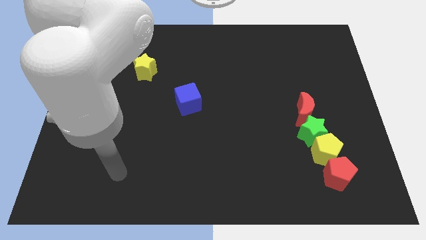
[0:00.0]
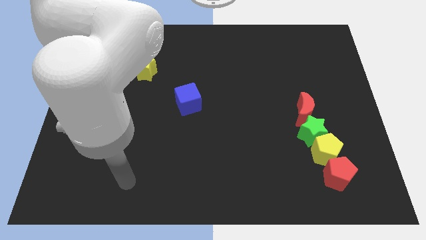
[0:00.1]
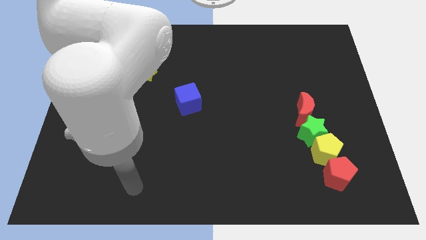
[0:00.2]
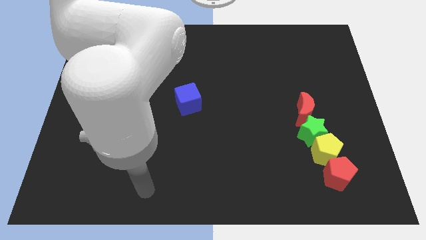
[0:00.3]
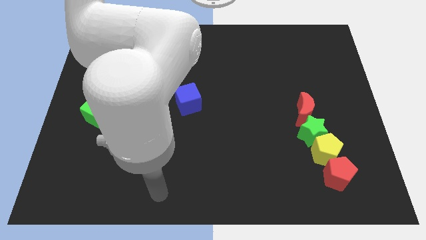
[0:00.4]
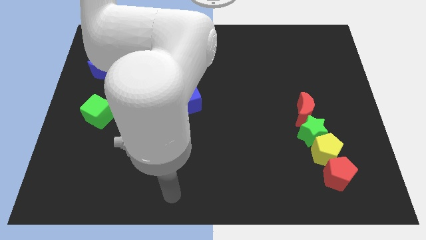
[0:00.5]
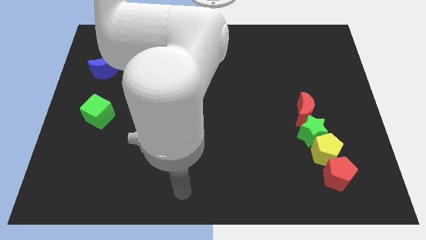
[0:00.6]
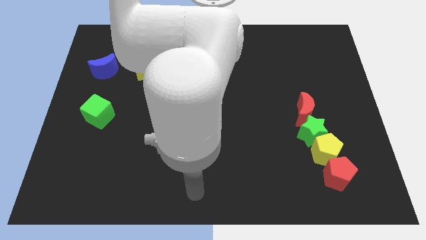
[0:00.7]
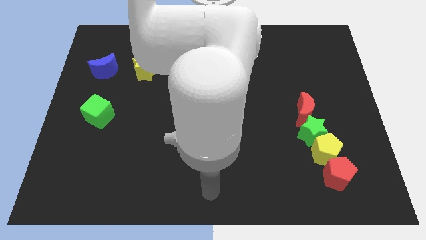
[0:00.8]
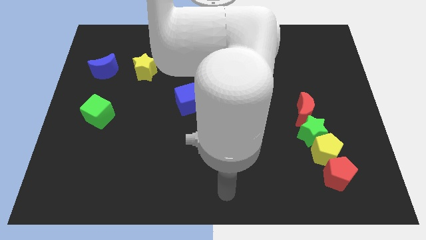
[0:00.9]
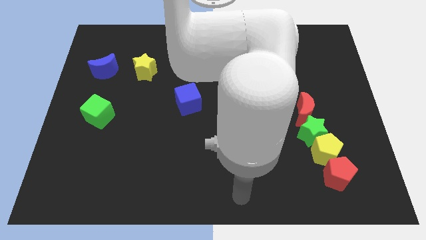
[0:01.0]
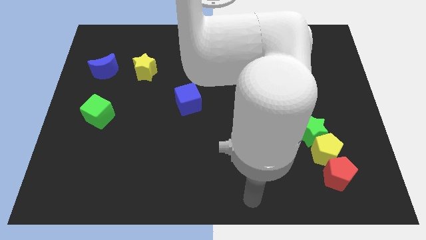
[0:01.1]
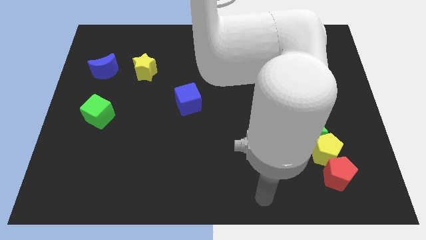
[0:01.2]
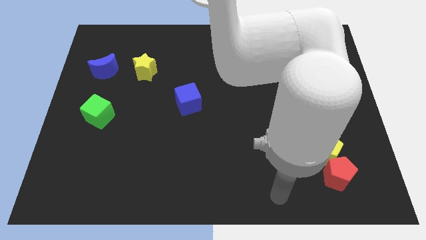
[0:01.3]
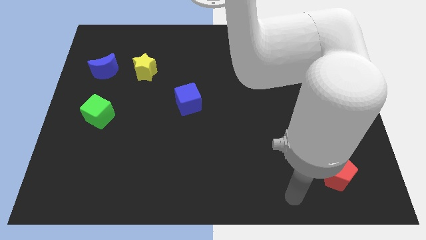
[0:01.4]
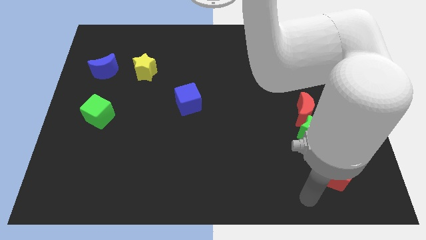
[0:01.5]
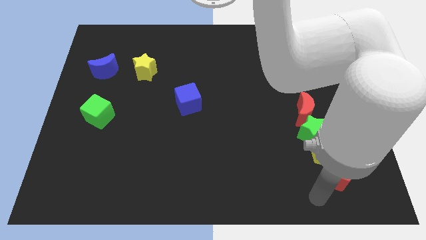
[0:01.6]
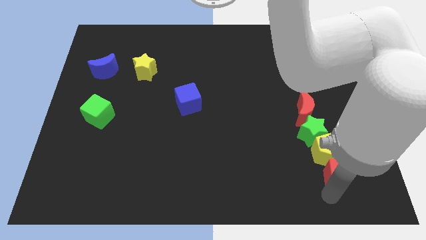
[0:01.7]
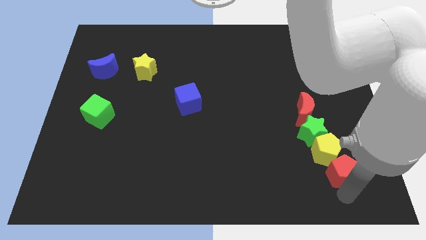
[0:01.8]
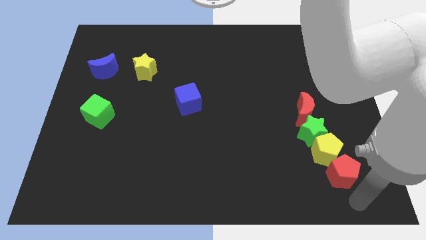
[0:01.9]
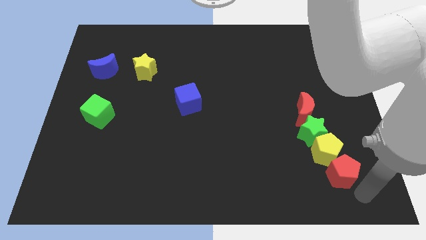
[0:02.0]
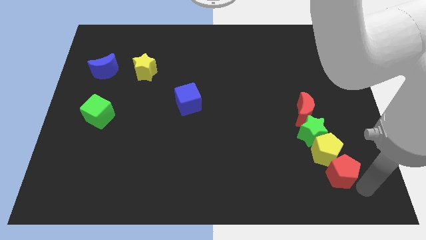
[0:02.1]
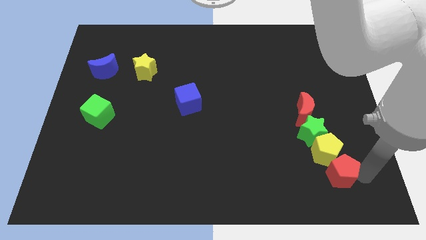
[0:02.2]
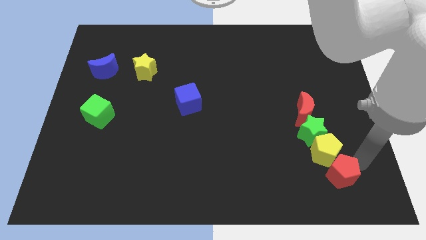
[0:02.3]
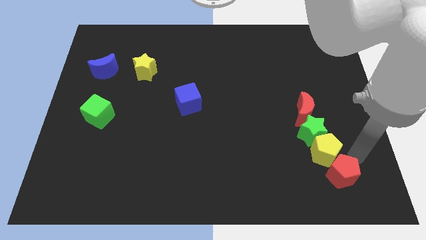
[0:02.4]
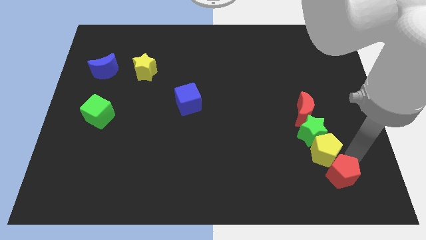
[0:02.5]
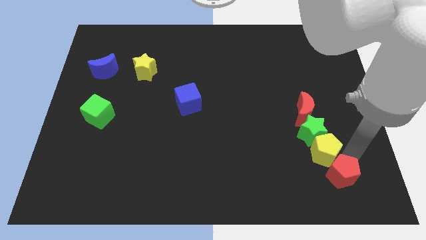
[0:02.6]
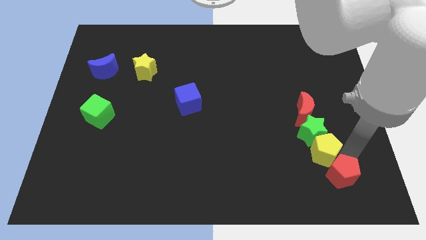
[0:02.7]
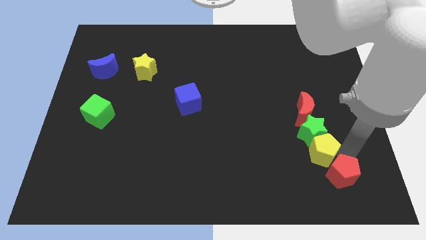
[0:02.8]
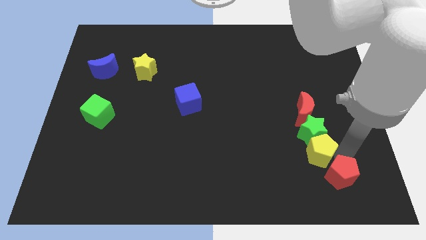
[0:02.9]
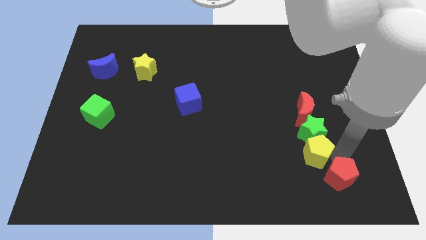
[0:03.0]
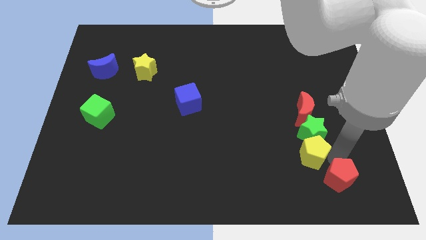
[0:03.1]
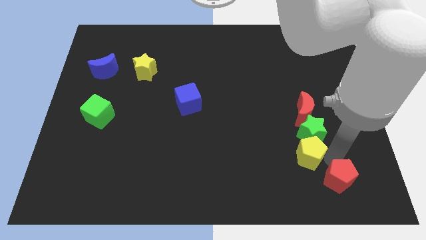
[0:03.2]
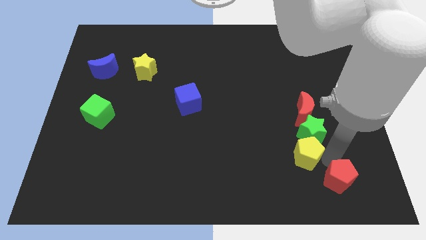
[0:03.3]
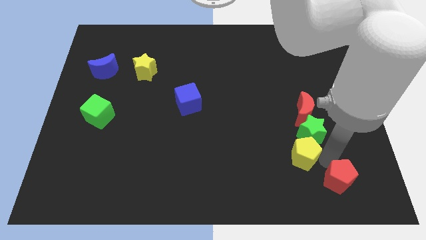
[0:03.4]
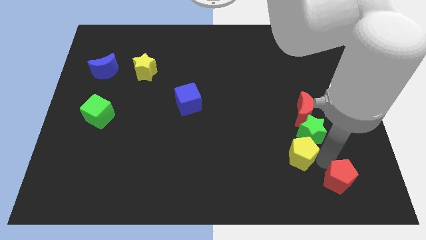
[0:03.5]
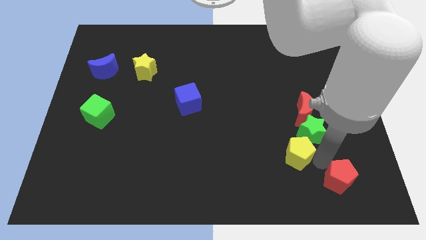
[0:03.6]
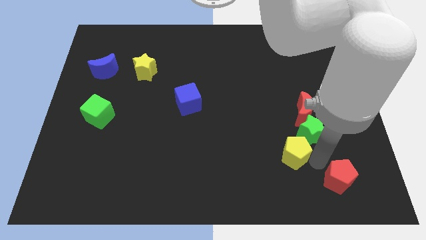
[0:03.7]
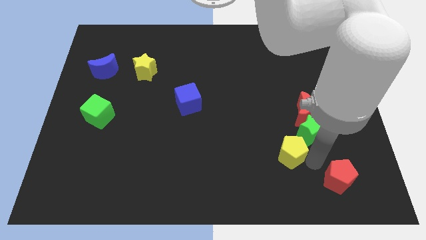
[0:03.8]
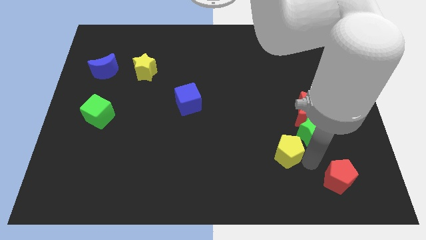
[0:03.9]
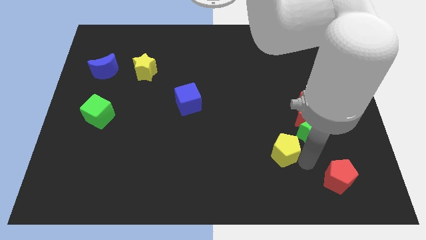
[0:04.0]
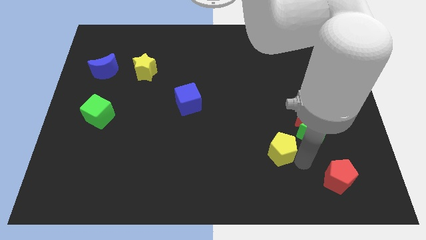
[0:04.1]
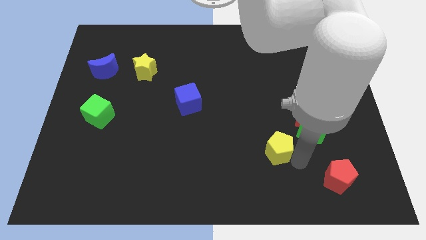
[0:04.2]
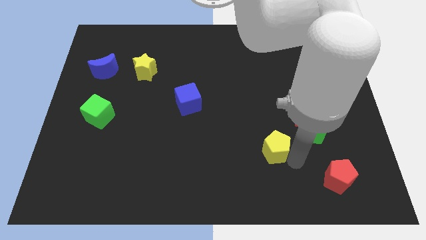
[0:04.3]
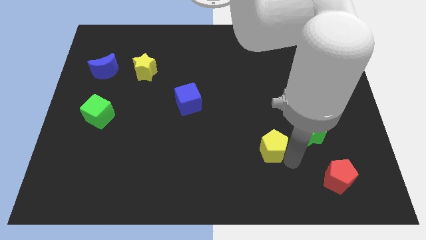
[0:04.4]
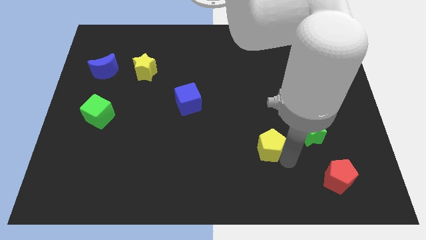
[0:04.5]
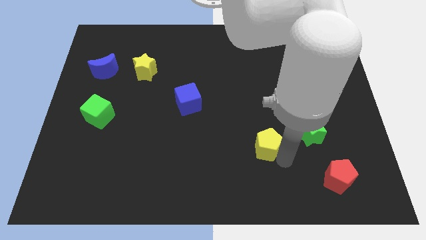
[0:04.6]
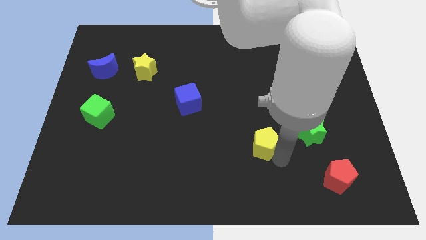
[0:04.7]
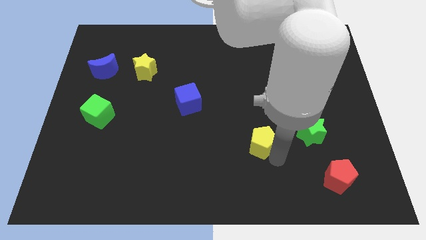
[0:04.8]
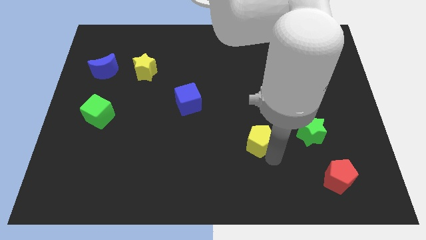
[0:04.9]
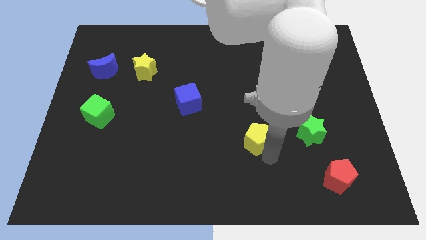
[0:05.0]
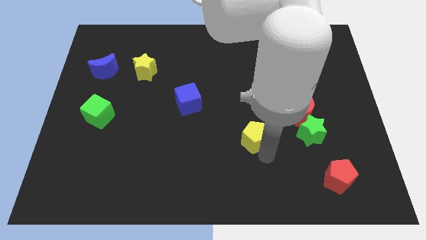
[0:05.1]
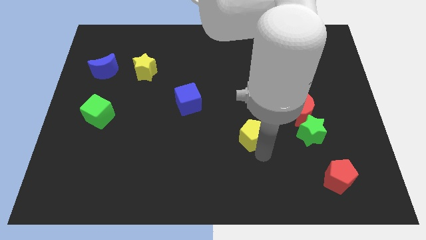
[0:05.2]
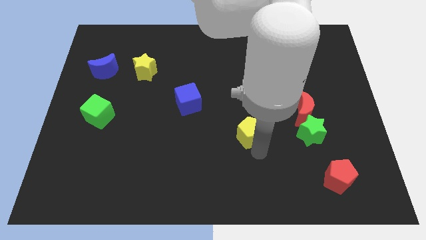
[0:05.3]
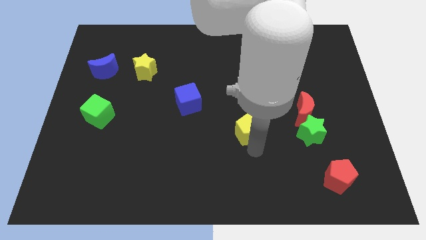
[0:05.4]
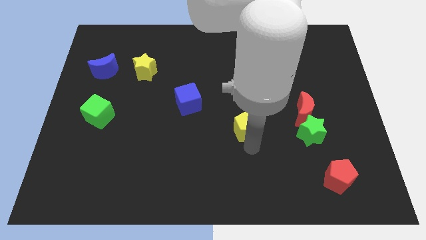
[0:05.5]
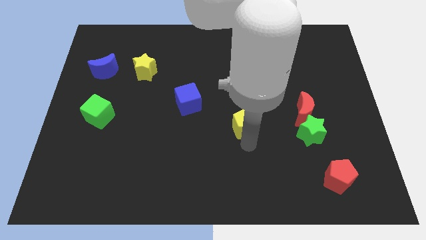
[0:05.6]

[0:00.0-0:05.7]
push the yellow pentagon just left of the red moon

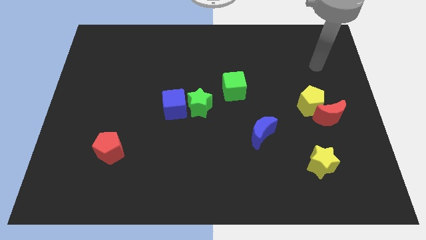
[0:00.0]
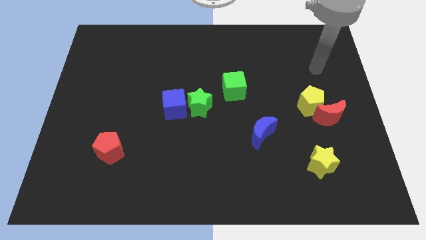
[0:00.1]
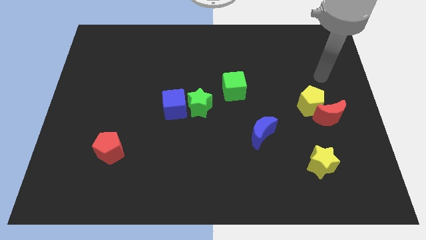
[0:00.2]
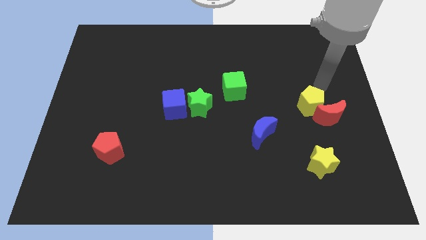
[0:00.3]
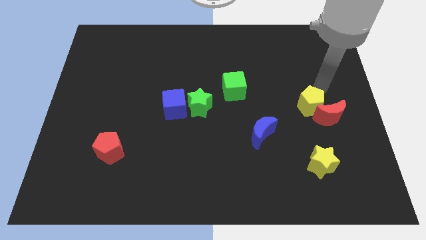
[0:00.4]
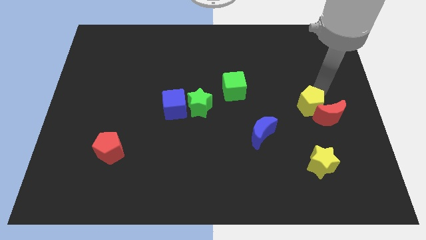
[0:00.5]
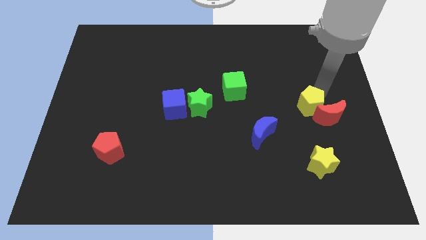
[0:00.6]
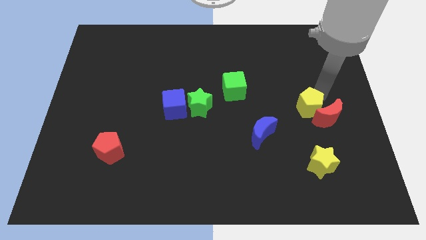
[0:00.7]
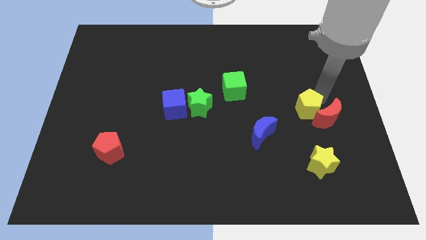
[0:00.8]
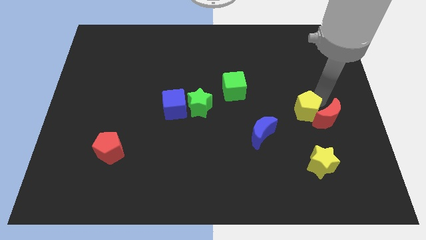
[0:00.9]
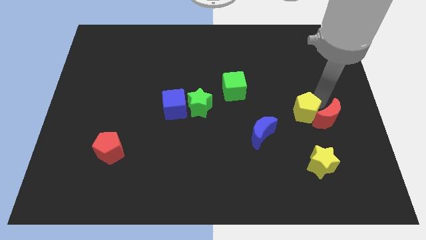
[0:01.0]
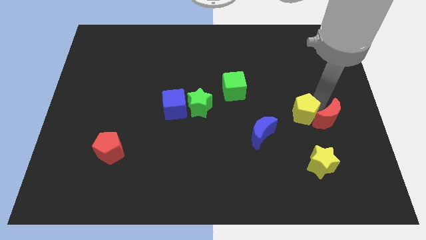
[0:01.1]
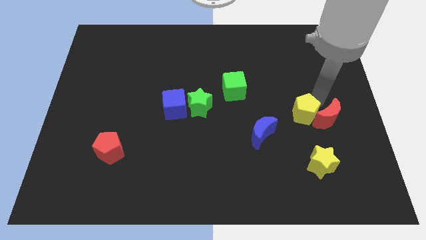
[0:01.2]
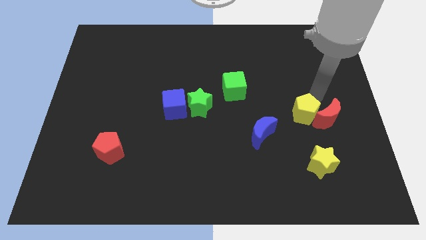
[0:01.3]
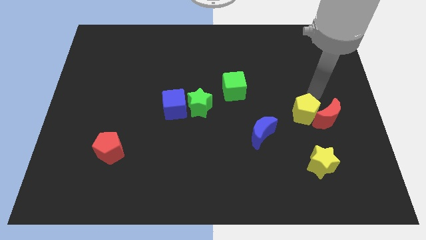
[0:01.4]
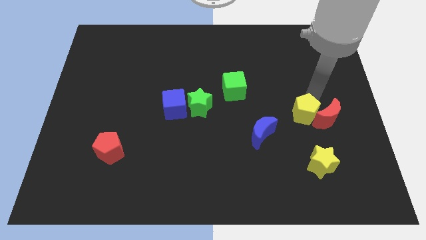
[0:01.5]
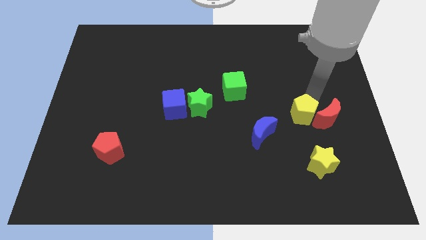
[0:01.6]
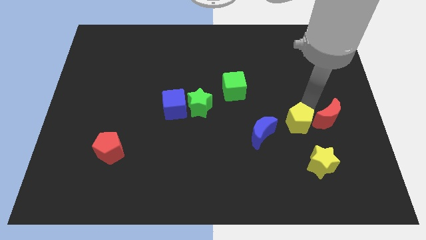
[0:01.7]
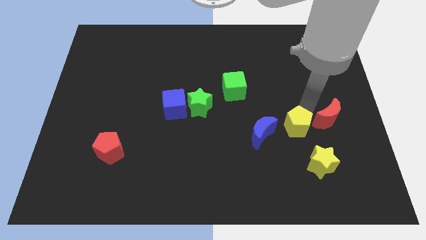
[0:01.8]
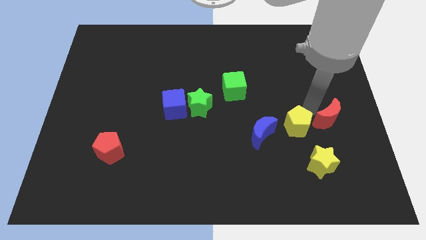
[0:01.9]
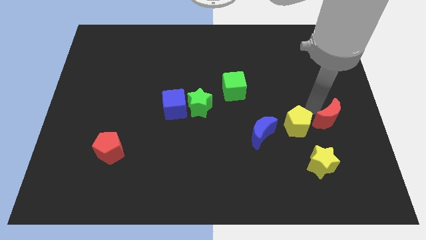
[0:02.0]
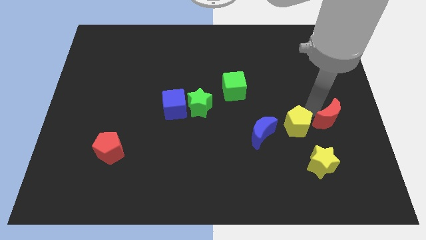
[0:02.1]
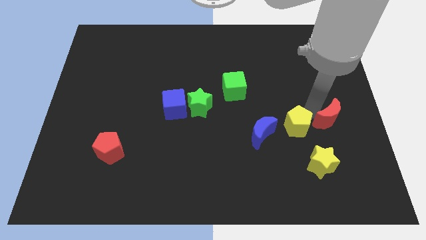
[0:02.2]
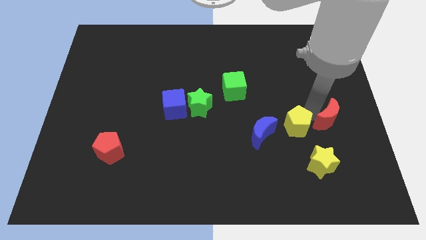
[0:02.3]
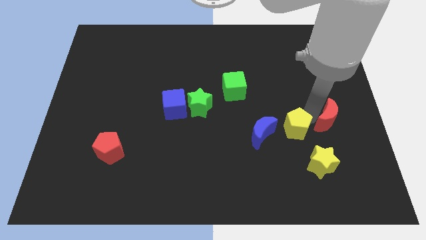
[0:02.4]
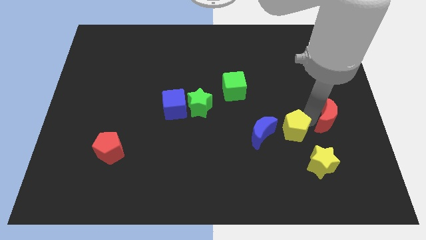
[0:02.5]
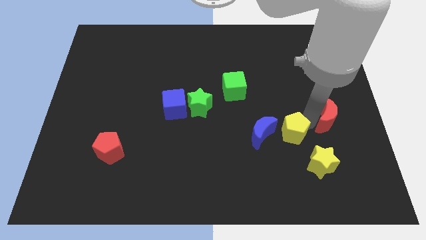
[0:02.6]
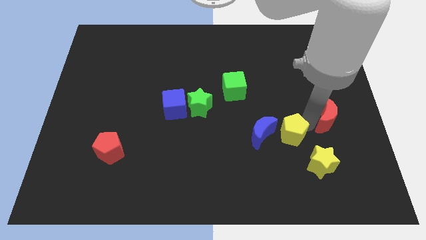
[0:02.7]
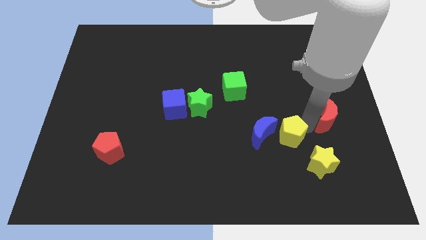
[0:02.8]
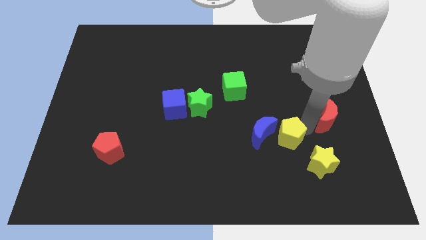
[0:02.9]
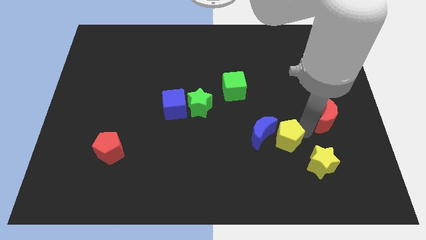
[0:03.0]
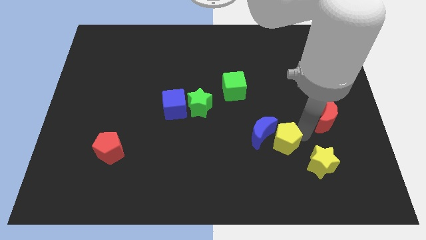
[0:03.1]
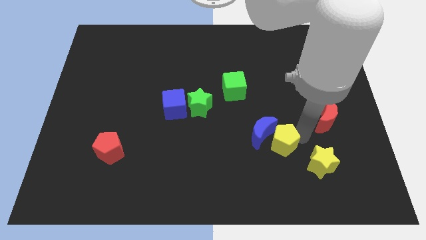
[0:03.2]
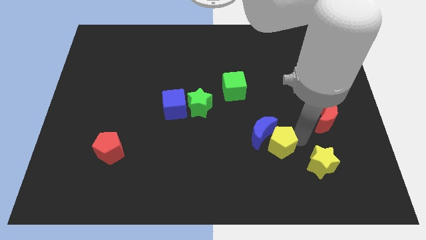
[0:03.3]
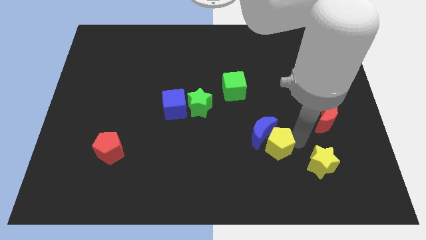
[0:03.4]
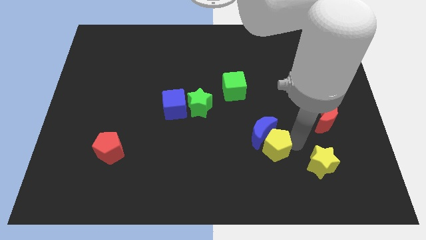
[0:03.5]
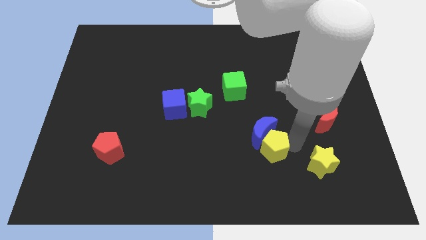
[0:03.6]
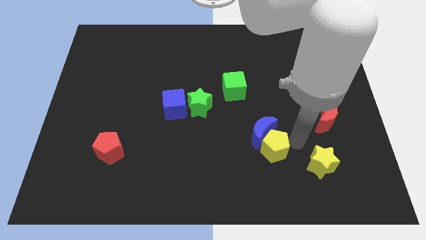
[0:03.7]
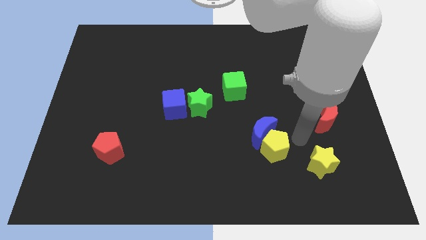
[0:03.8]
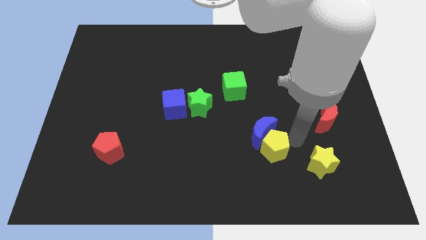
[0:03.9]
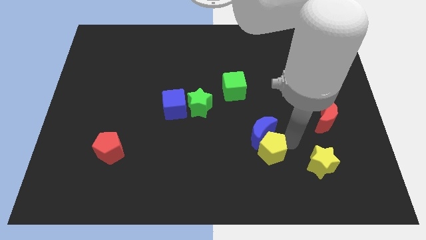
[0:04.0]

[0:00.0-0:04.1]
push the yellow pentagon to the bottom left side of the blue moon
